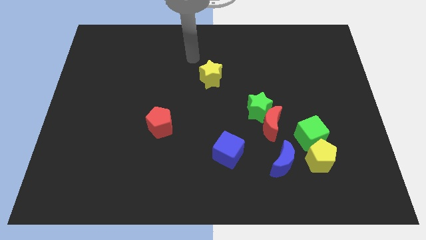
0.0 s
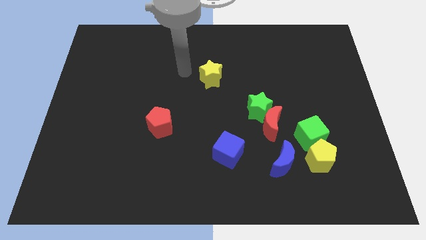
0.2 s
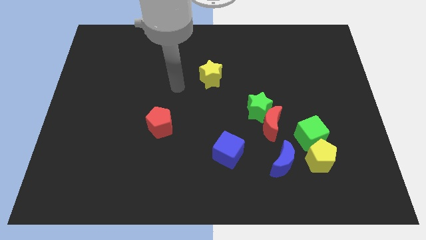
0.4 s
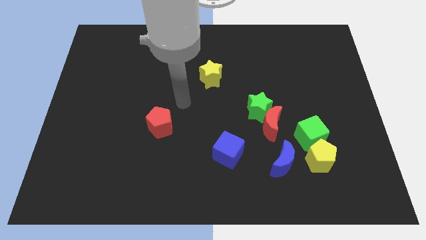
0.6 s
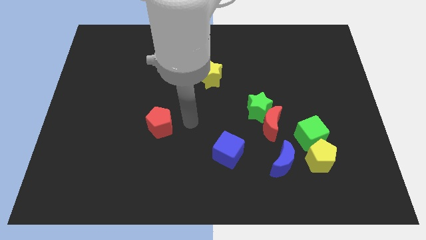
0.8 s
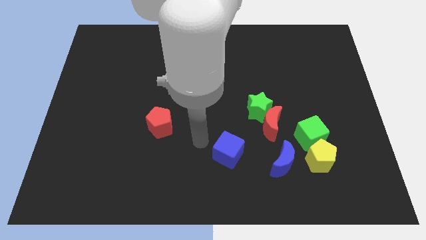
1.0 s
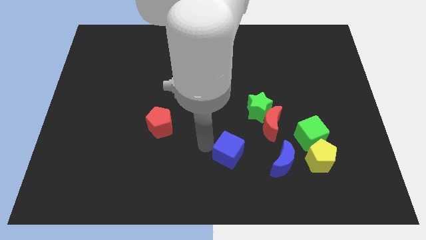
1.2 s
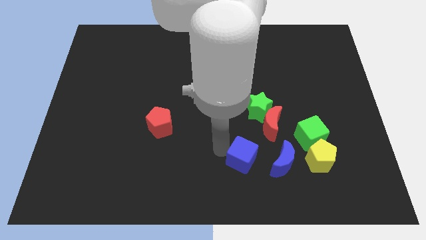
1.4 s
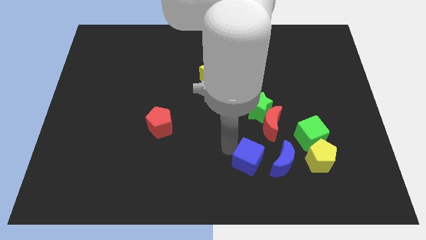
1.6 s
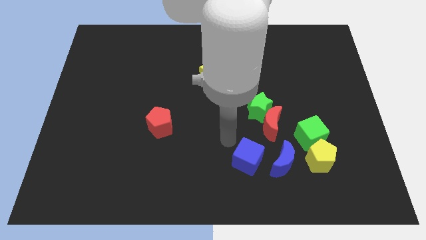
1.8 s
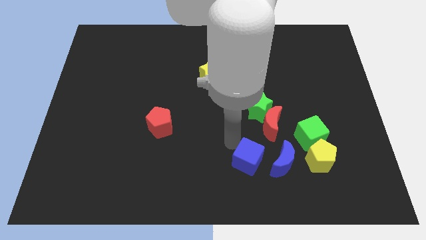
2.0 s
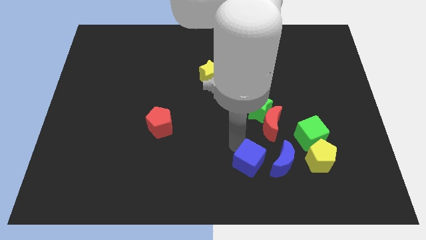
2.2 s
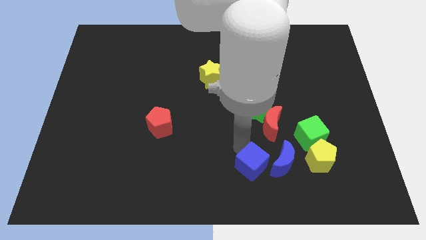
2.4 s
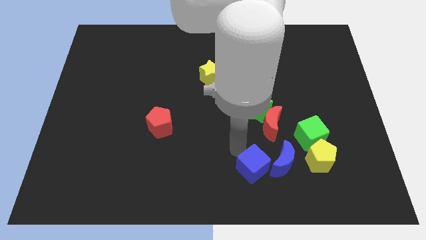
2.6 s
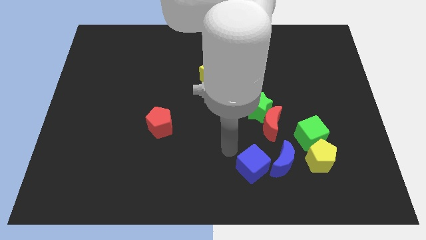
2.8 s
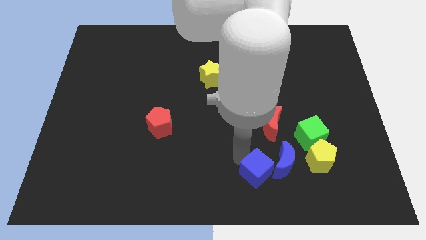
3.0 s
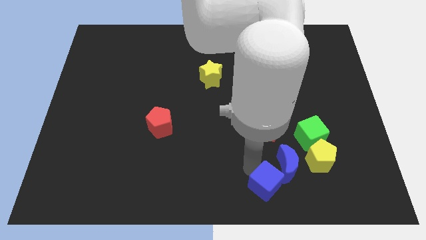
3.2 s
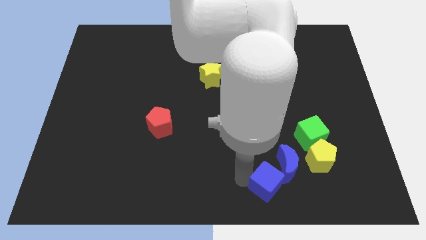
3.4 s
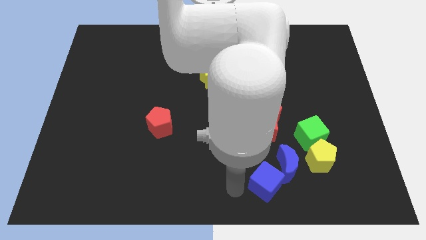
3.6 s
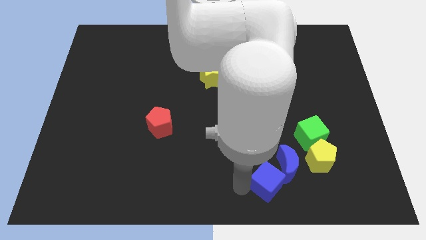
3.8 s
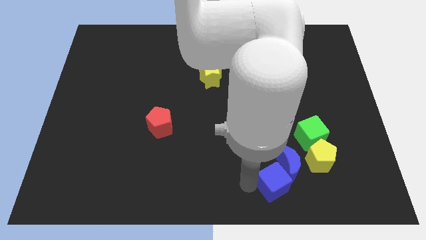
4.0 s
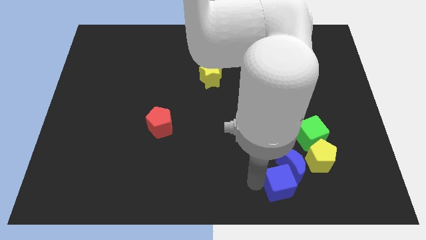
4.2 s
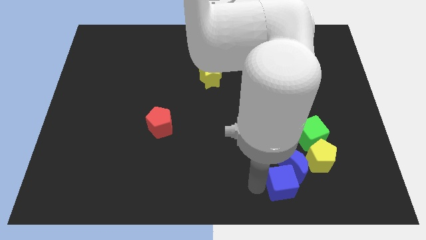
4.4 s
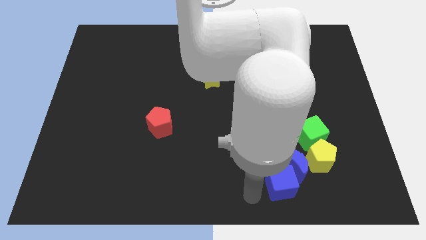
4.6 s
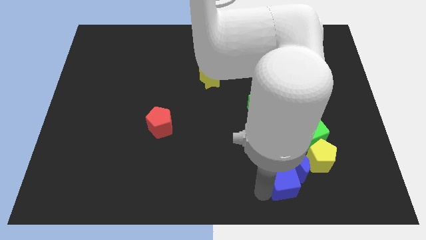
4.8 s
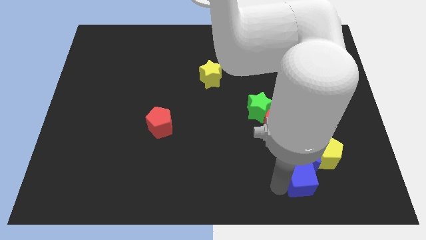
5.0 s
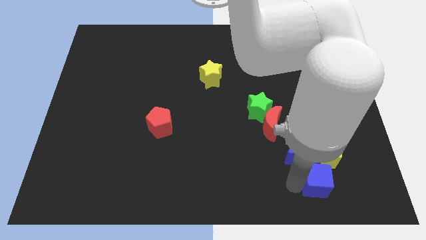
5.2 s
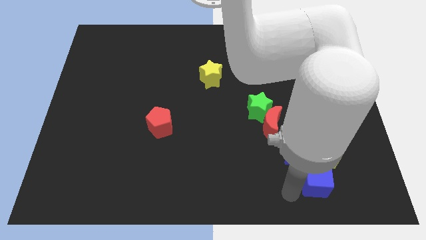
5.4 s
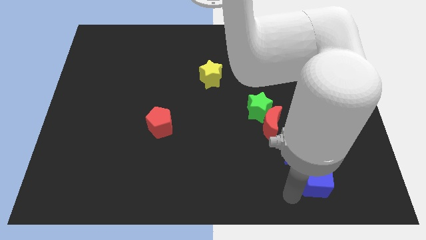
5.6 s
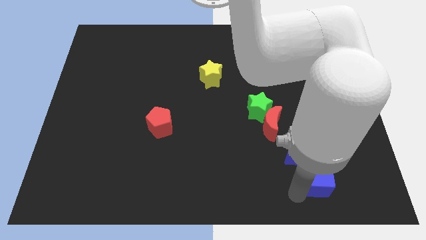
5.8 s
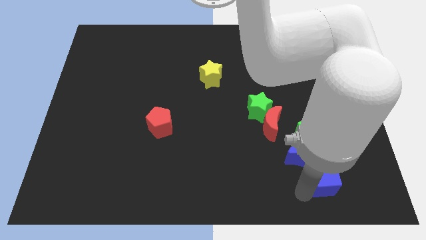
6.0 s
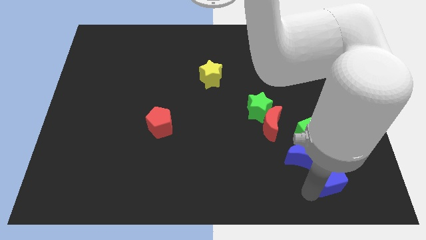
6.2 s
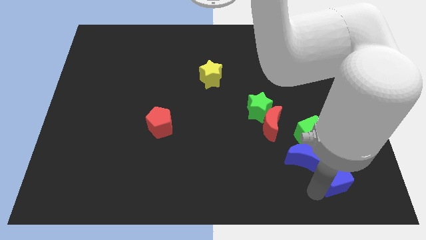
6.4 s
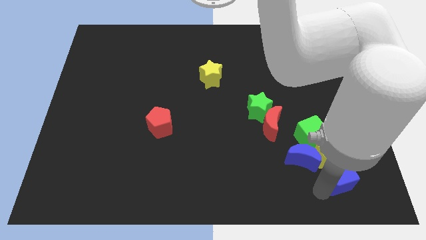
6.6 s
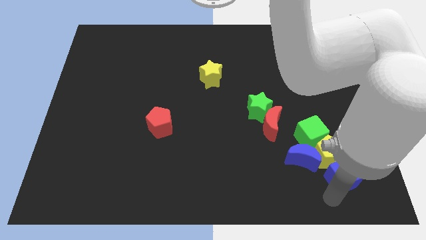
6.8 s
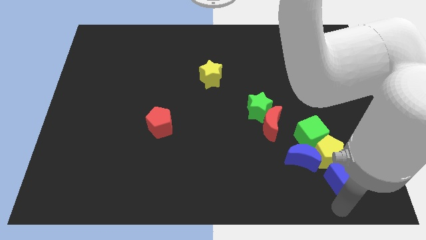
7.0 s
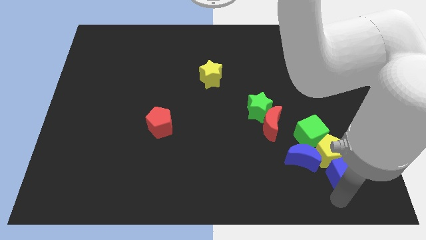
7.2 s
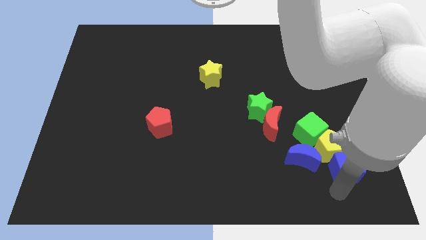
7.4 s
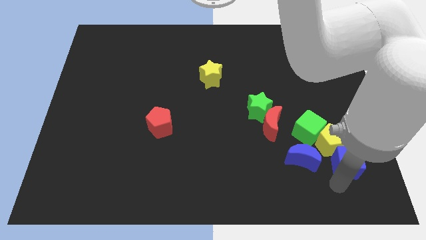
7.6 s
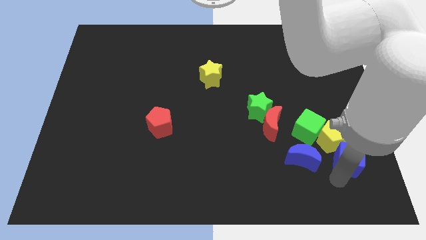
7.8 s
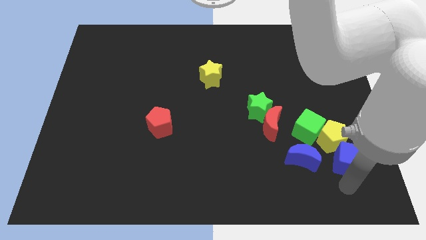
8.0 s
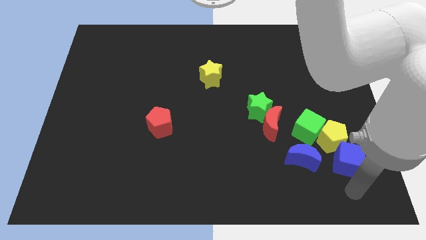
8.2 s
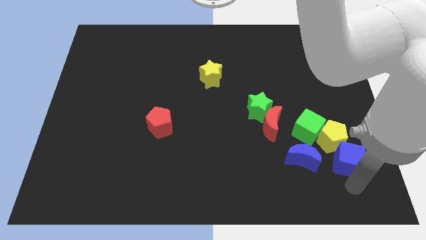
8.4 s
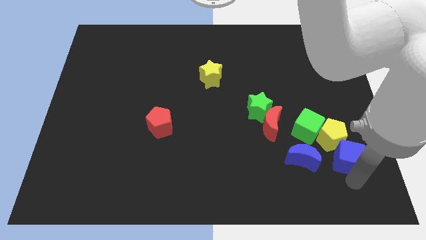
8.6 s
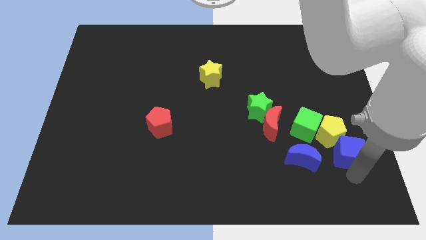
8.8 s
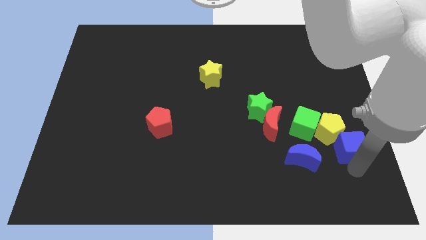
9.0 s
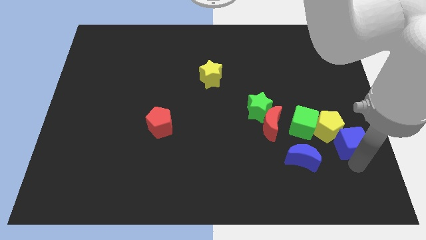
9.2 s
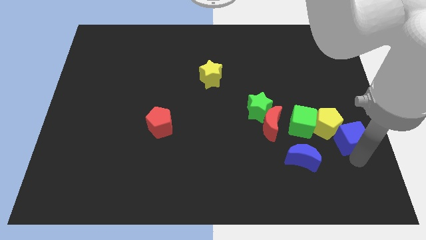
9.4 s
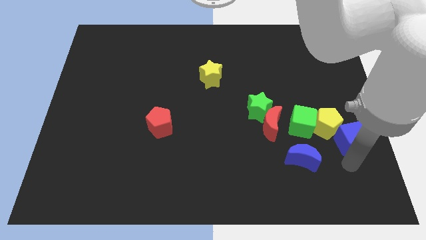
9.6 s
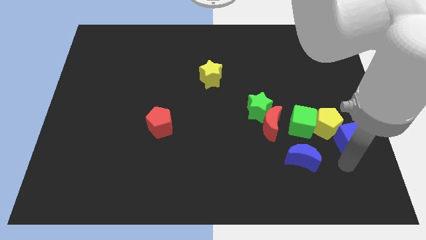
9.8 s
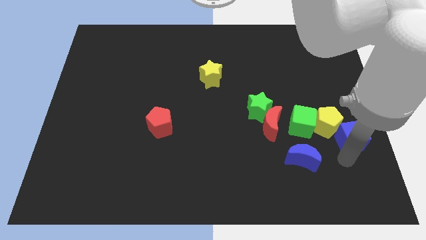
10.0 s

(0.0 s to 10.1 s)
slide the blue cube to the right side of the board

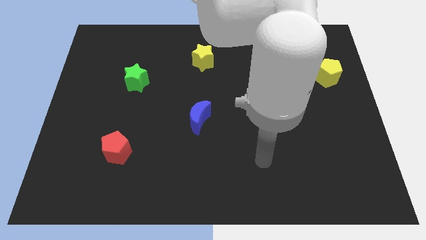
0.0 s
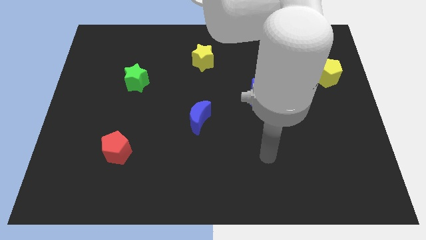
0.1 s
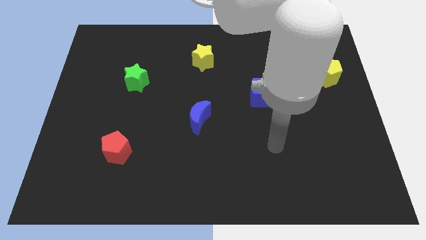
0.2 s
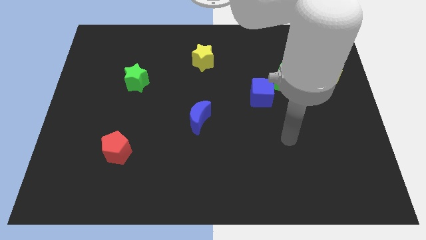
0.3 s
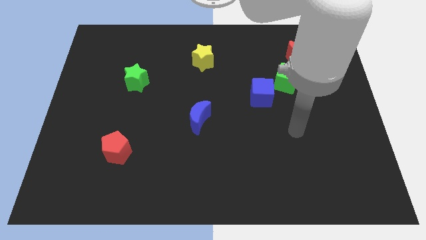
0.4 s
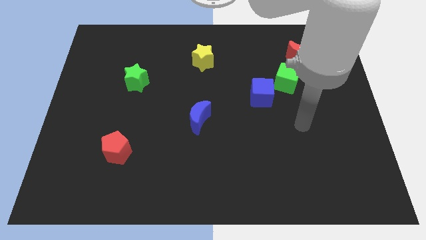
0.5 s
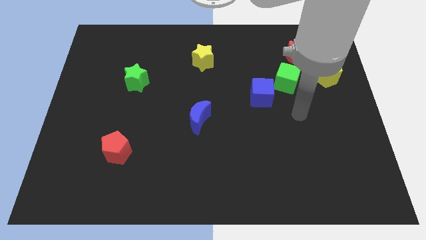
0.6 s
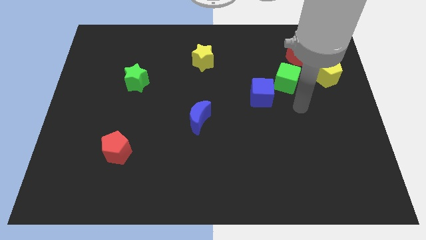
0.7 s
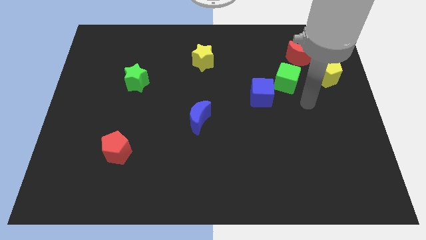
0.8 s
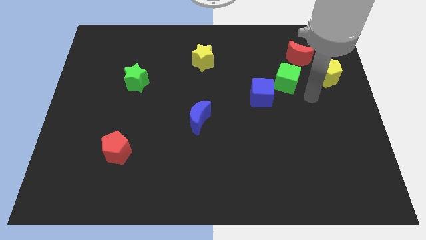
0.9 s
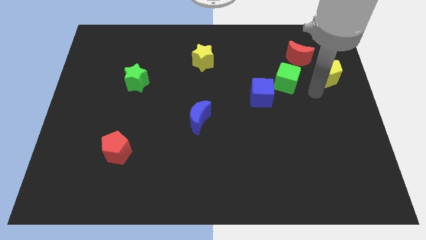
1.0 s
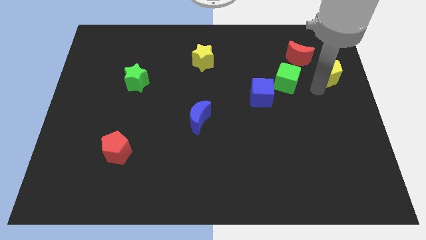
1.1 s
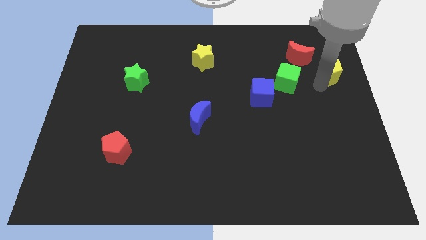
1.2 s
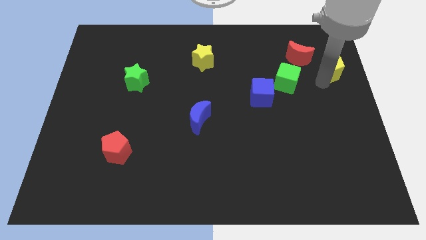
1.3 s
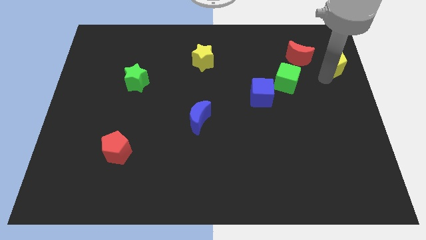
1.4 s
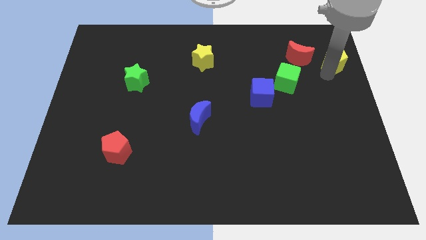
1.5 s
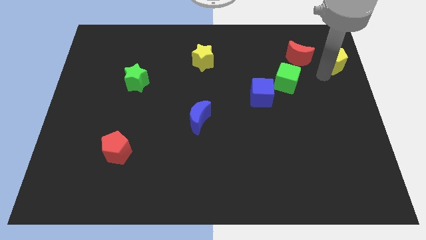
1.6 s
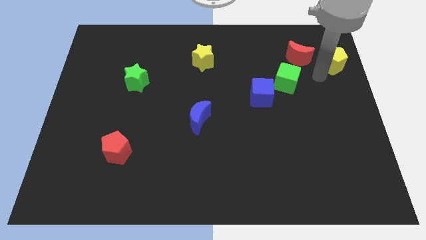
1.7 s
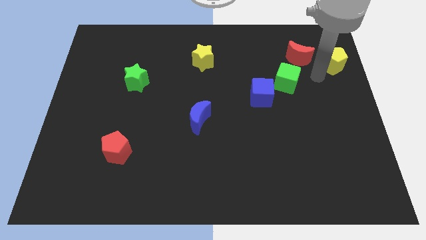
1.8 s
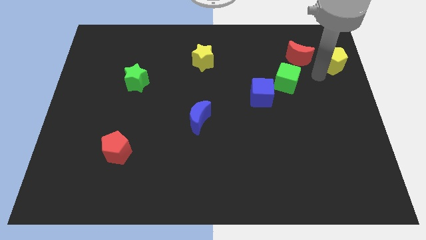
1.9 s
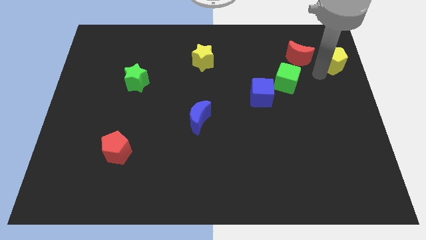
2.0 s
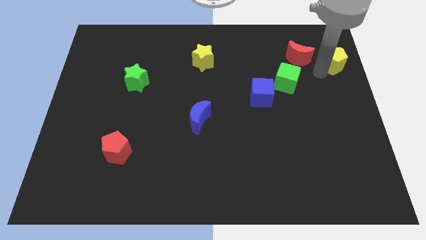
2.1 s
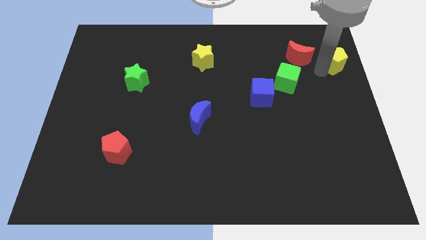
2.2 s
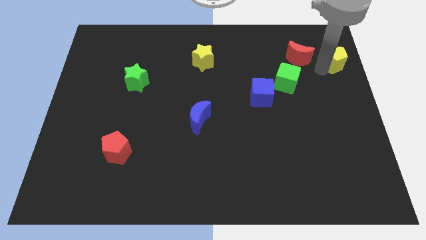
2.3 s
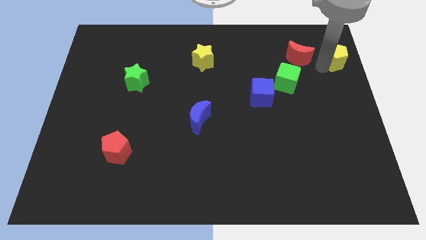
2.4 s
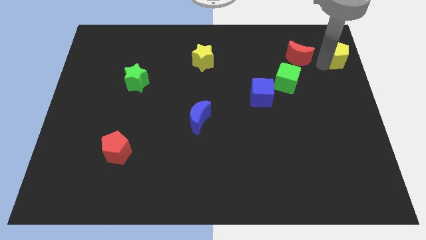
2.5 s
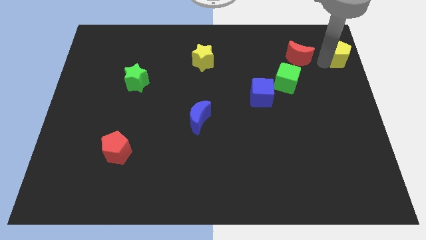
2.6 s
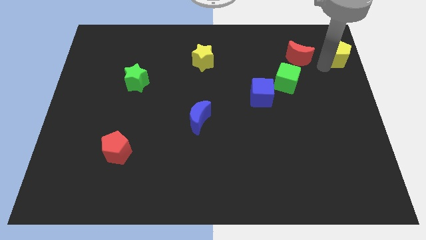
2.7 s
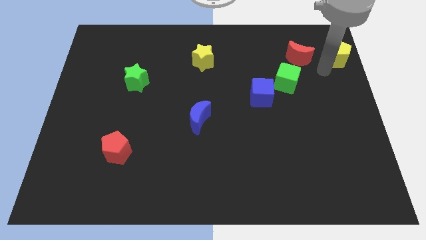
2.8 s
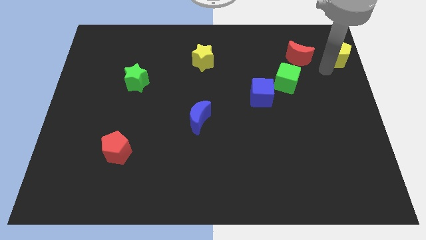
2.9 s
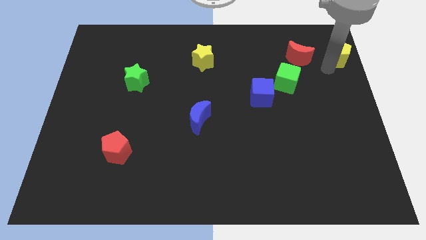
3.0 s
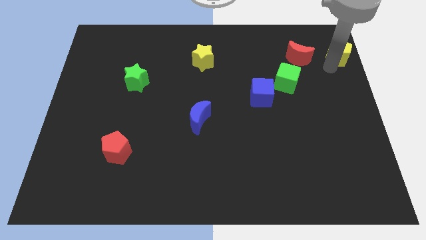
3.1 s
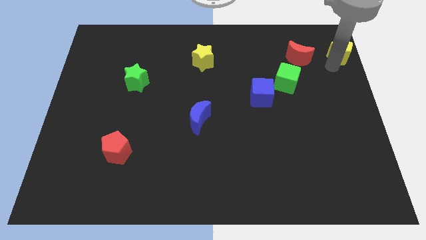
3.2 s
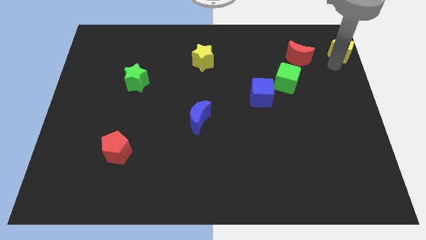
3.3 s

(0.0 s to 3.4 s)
put the yellow pentagon to the top right corner
